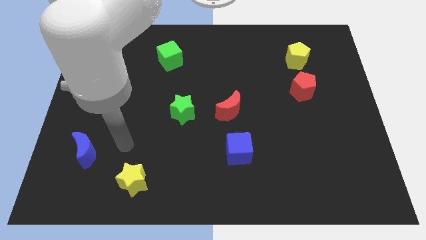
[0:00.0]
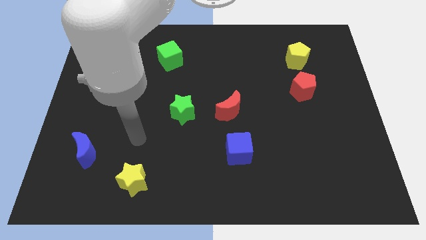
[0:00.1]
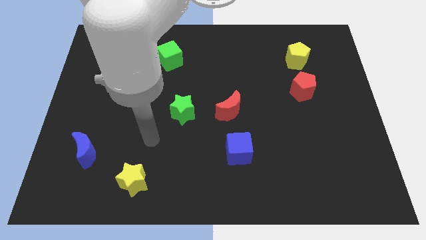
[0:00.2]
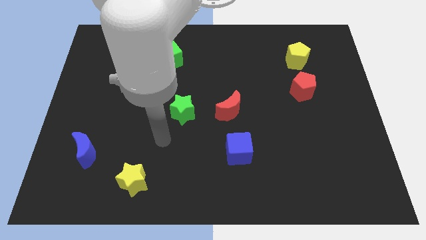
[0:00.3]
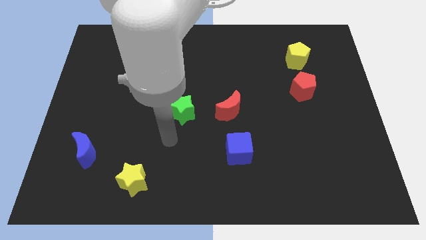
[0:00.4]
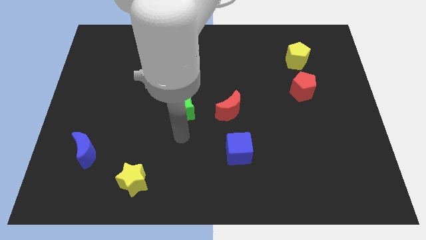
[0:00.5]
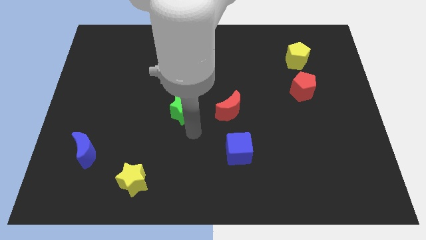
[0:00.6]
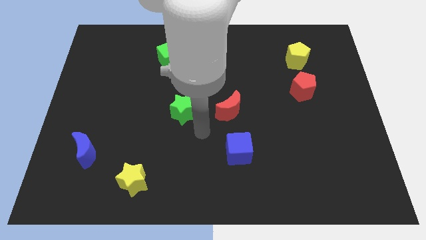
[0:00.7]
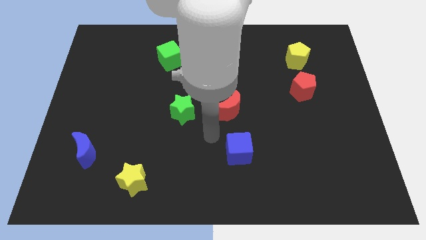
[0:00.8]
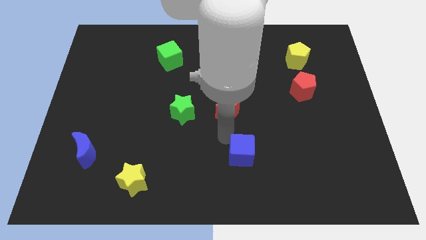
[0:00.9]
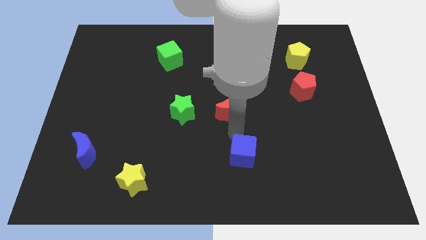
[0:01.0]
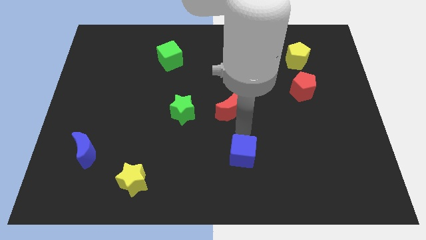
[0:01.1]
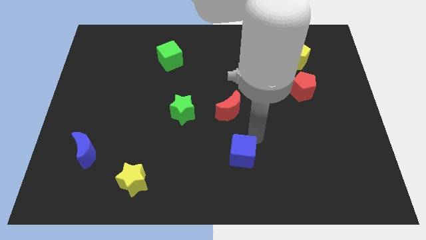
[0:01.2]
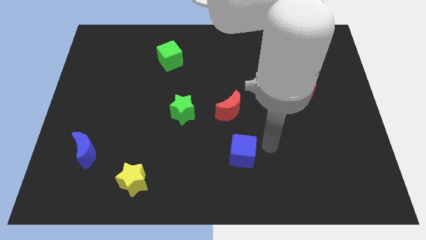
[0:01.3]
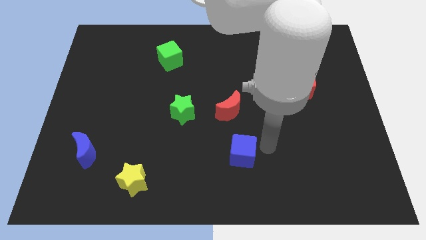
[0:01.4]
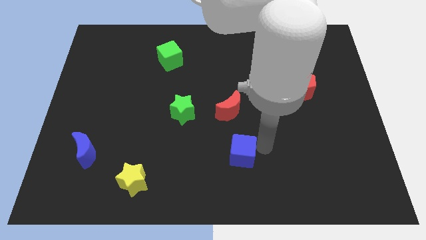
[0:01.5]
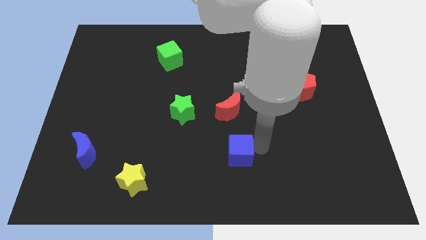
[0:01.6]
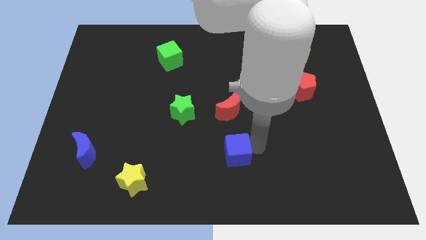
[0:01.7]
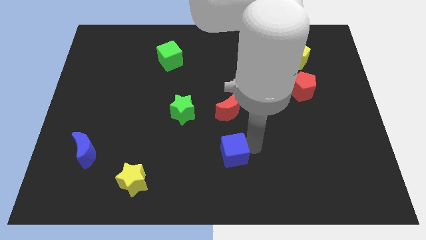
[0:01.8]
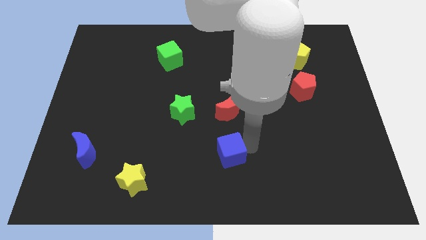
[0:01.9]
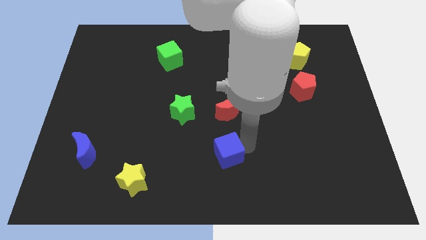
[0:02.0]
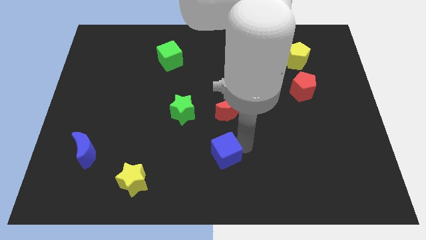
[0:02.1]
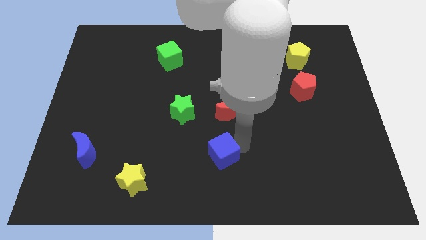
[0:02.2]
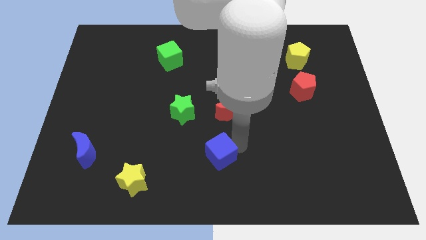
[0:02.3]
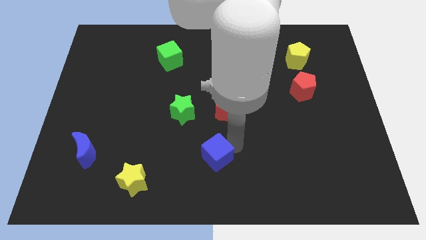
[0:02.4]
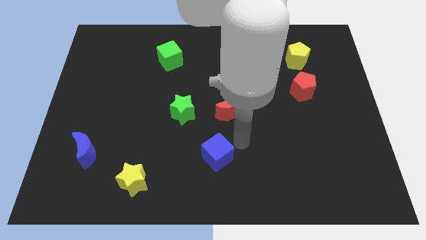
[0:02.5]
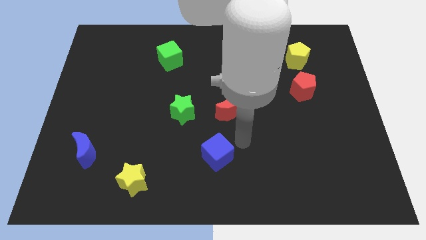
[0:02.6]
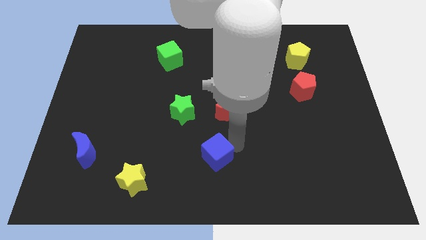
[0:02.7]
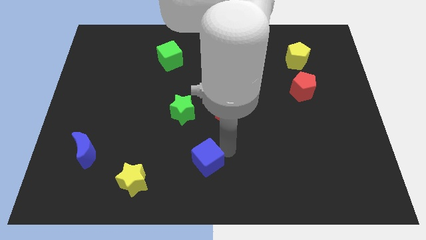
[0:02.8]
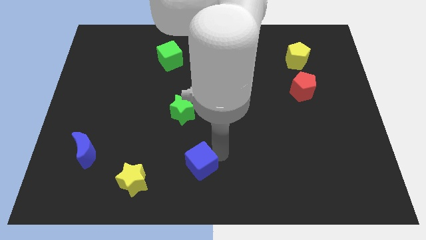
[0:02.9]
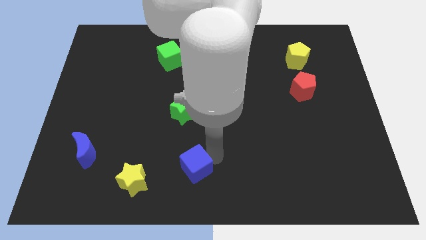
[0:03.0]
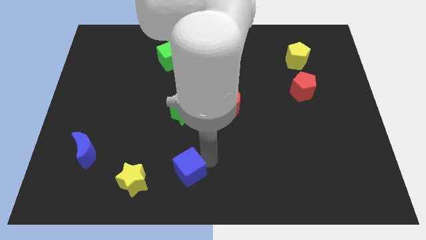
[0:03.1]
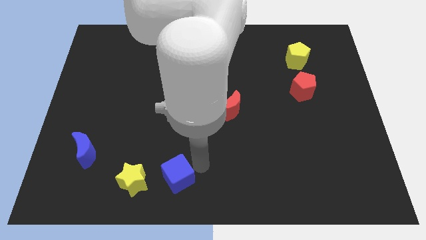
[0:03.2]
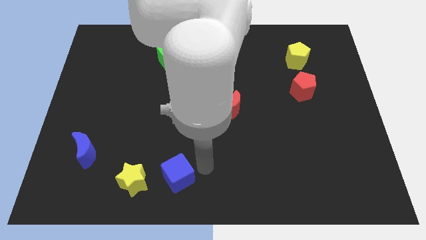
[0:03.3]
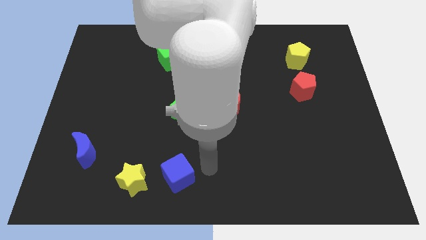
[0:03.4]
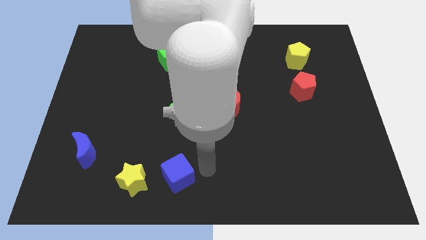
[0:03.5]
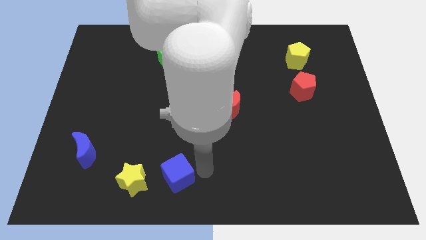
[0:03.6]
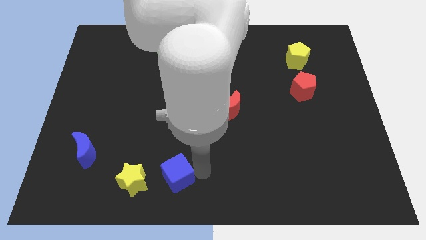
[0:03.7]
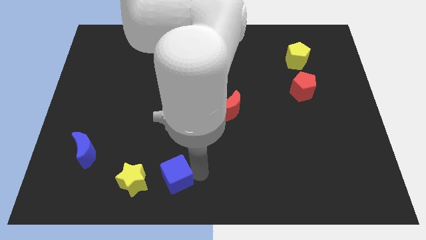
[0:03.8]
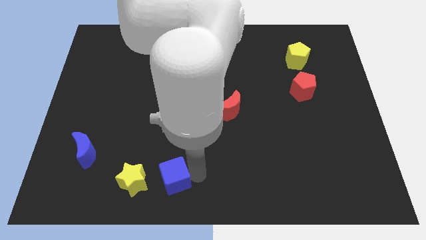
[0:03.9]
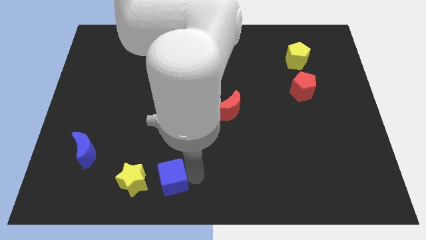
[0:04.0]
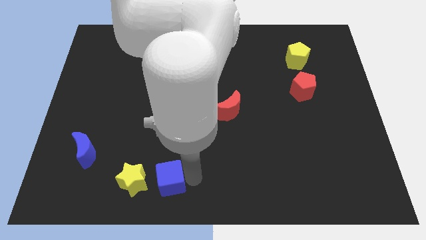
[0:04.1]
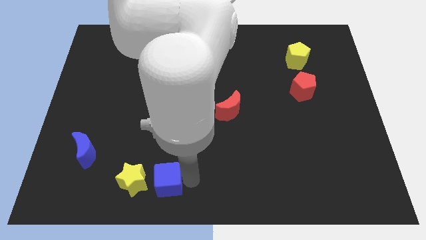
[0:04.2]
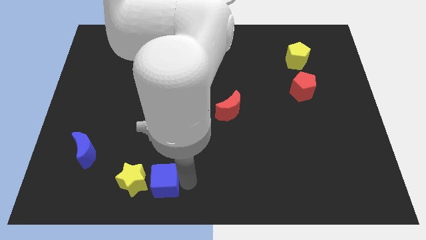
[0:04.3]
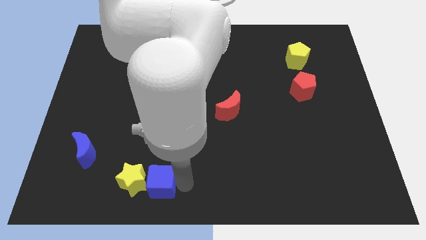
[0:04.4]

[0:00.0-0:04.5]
push the blue cube to the yellow star

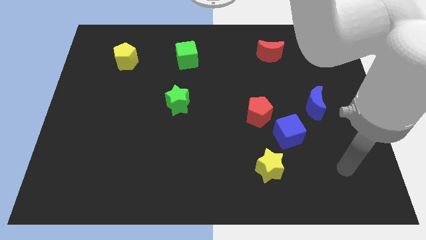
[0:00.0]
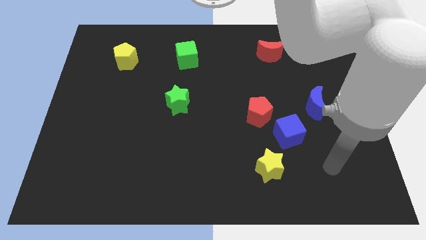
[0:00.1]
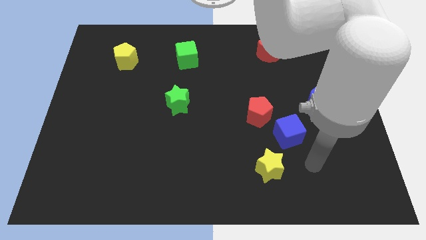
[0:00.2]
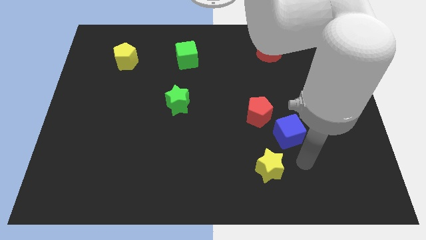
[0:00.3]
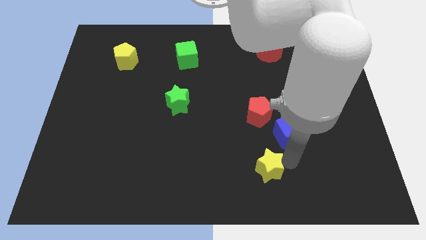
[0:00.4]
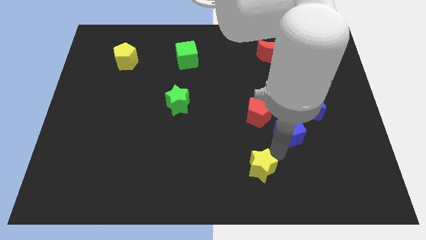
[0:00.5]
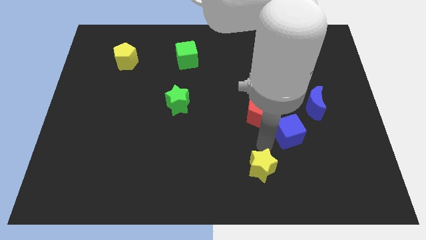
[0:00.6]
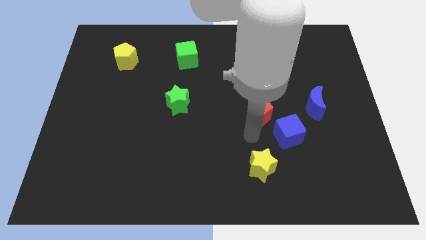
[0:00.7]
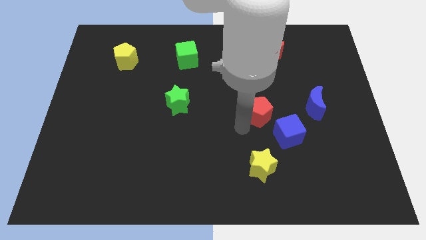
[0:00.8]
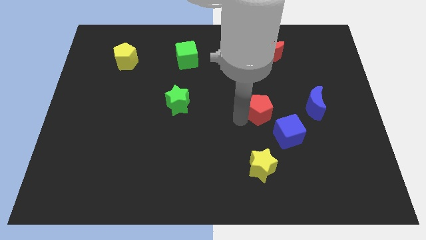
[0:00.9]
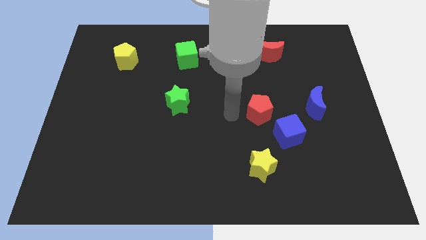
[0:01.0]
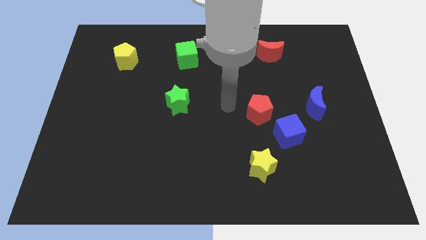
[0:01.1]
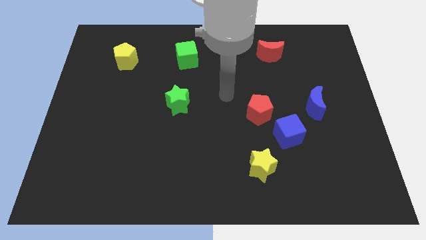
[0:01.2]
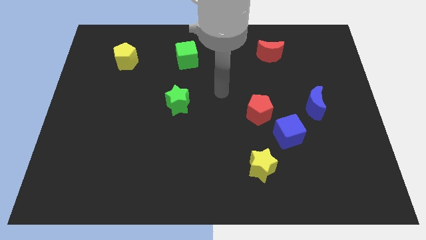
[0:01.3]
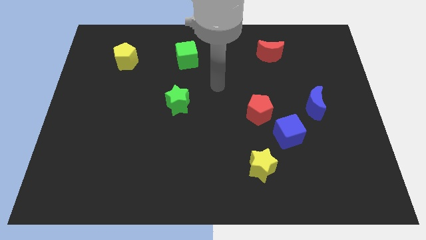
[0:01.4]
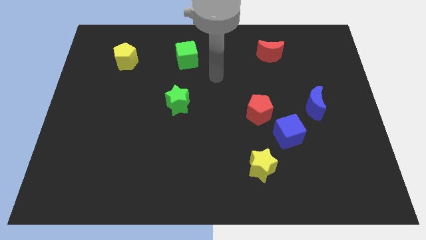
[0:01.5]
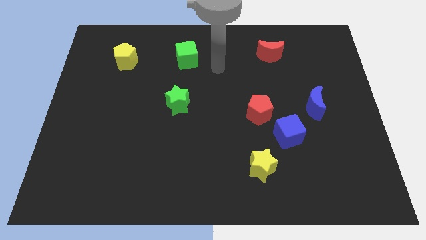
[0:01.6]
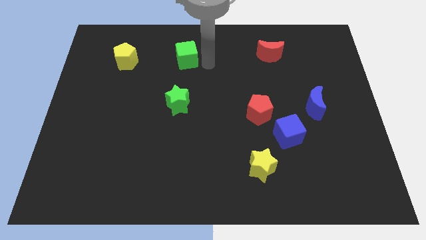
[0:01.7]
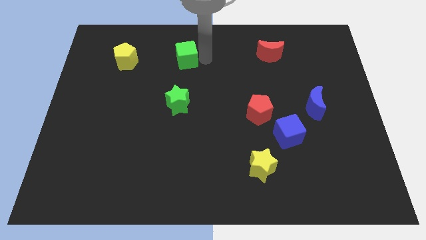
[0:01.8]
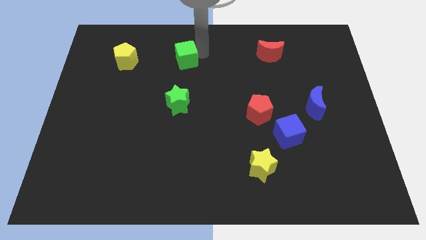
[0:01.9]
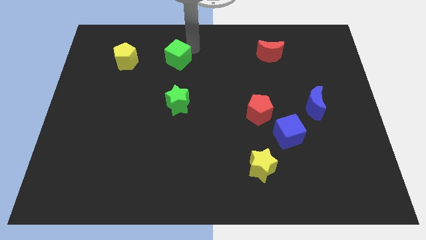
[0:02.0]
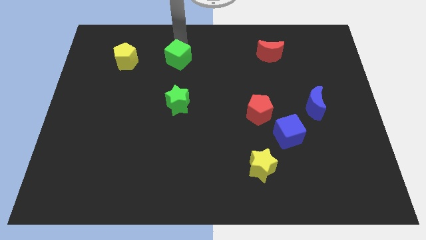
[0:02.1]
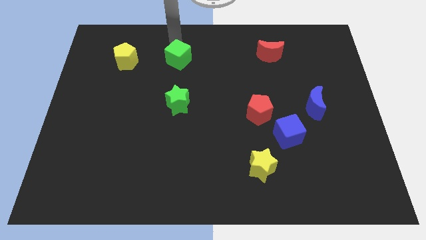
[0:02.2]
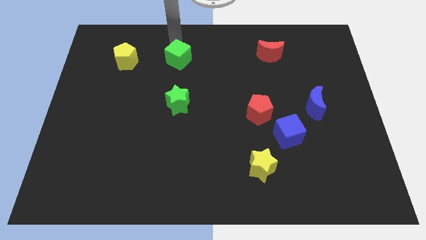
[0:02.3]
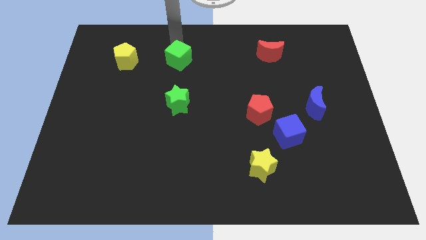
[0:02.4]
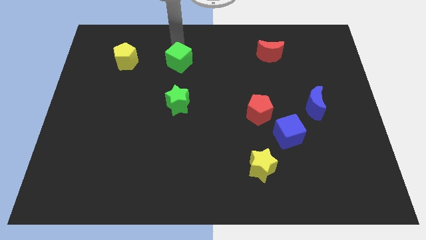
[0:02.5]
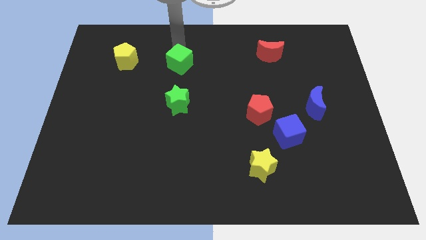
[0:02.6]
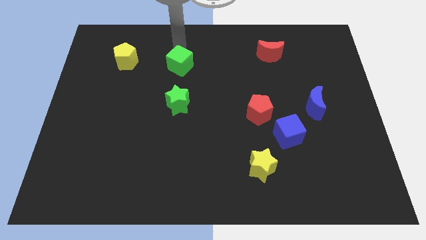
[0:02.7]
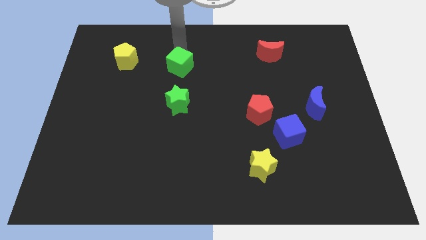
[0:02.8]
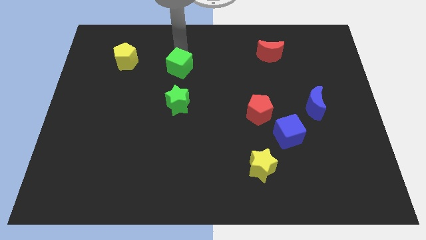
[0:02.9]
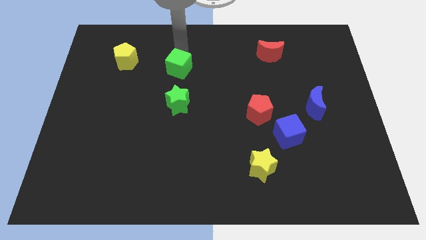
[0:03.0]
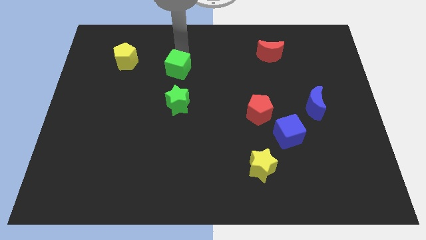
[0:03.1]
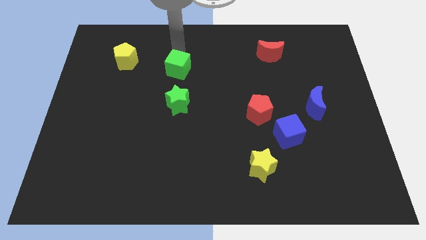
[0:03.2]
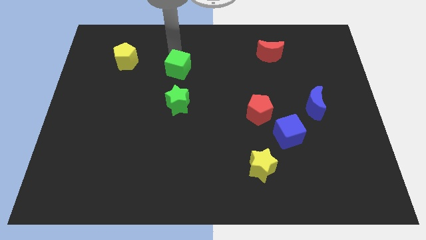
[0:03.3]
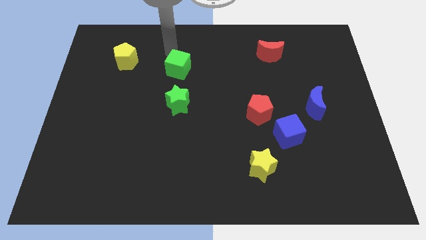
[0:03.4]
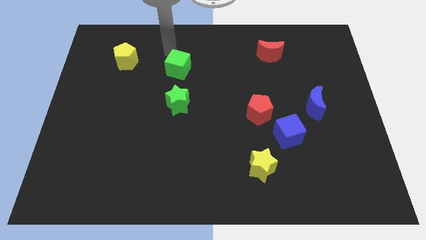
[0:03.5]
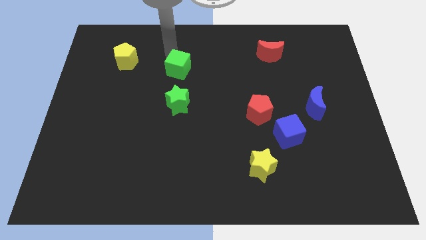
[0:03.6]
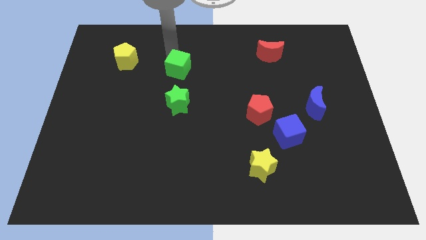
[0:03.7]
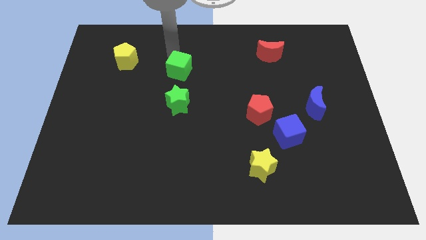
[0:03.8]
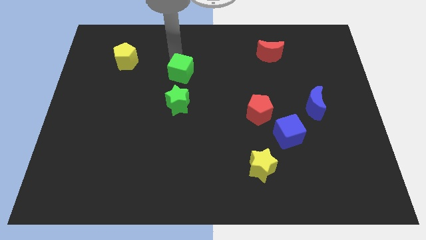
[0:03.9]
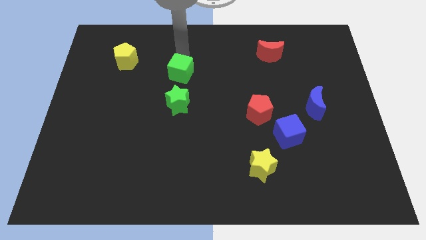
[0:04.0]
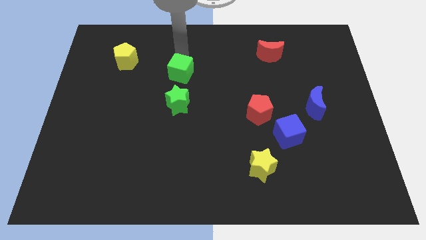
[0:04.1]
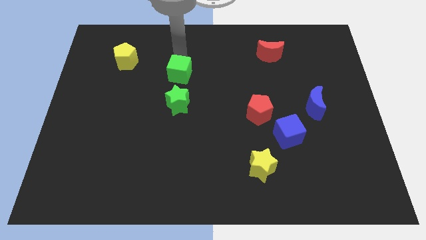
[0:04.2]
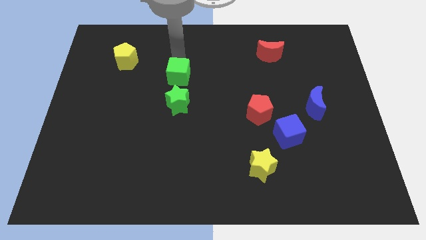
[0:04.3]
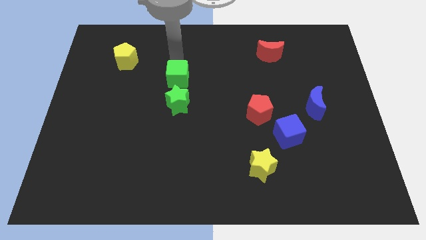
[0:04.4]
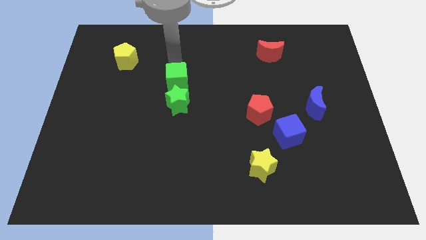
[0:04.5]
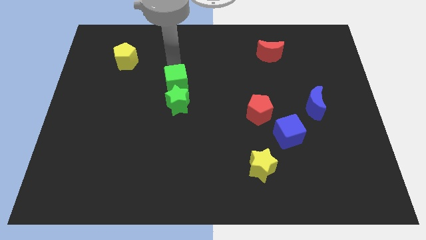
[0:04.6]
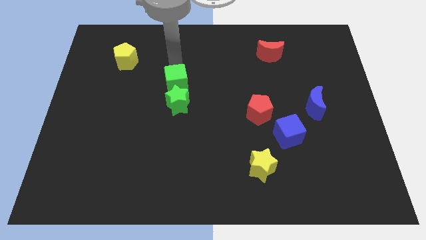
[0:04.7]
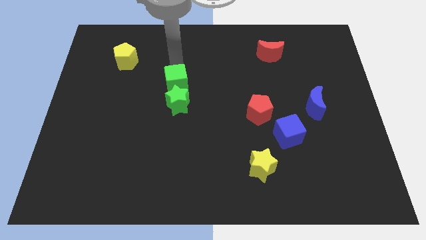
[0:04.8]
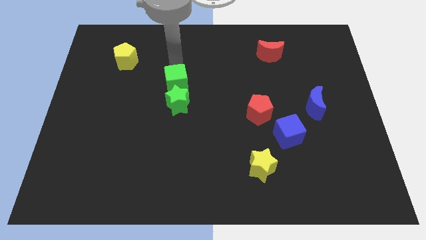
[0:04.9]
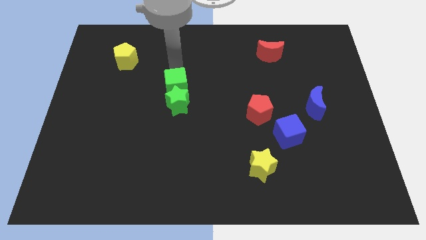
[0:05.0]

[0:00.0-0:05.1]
push the green cube to the green star
